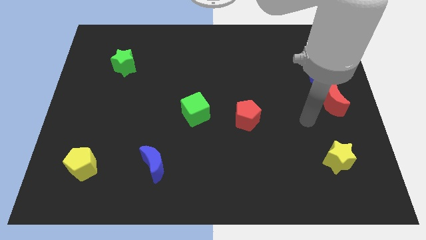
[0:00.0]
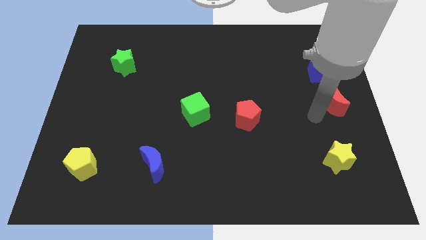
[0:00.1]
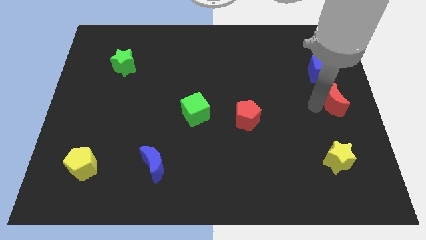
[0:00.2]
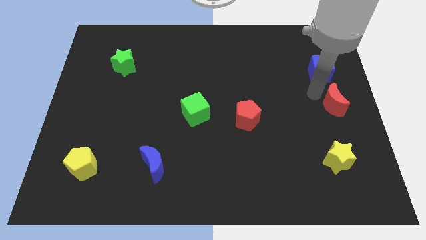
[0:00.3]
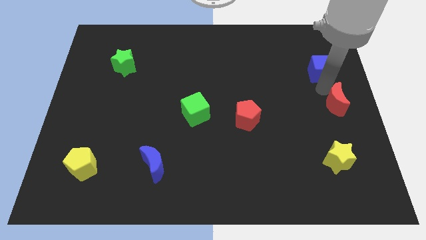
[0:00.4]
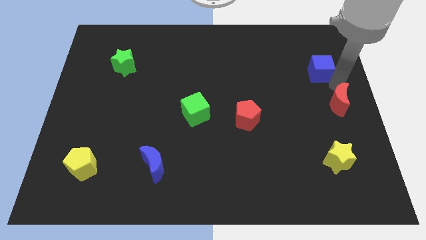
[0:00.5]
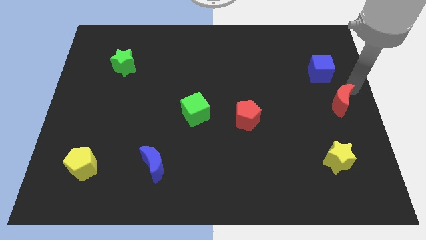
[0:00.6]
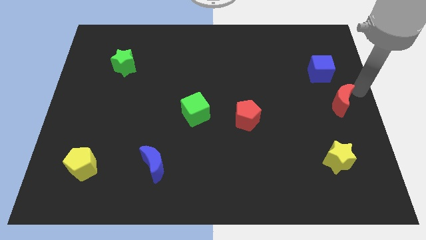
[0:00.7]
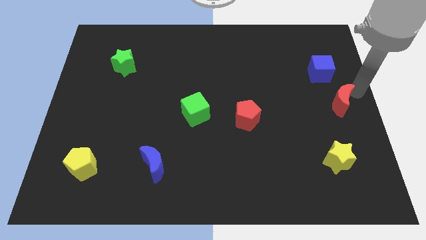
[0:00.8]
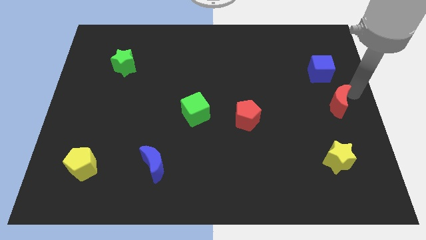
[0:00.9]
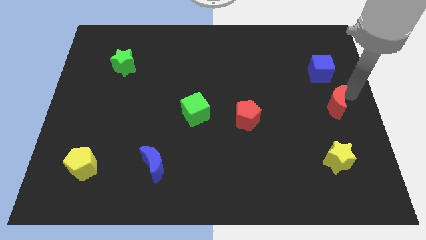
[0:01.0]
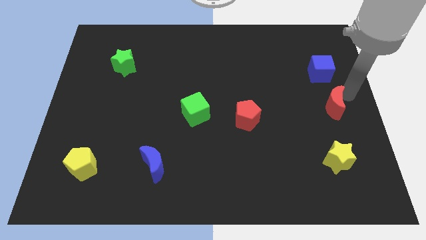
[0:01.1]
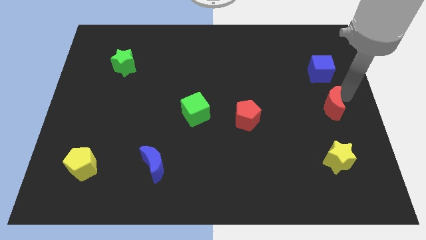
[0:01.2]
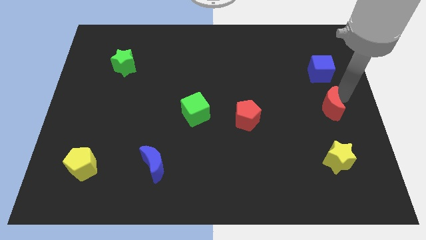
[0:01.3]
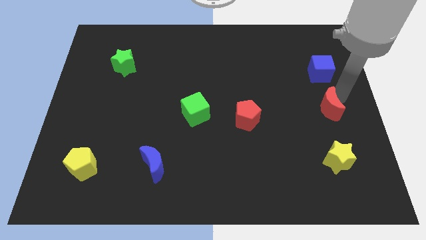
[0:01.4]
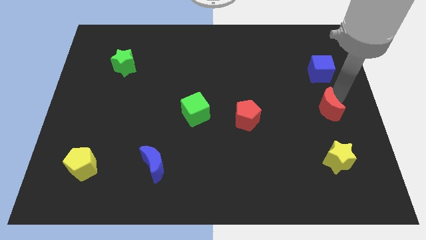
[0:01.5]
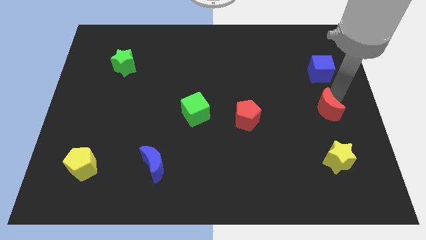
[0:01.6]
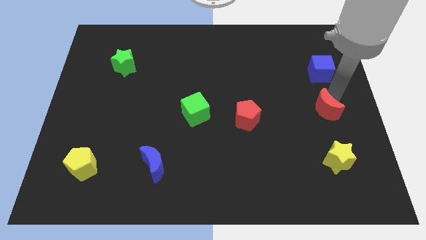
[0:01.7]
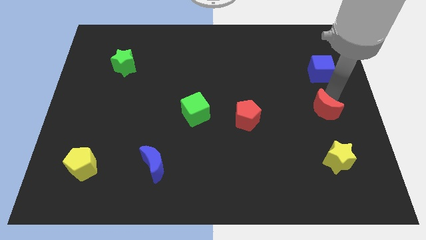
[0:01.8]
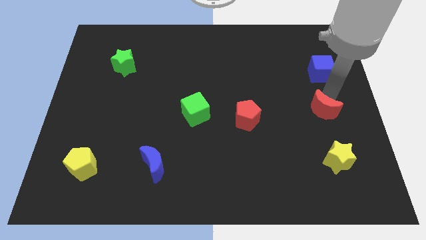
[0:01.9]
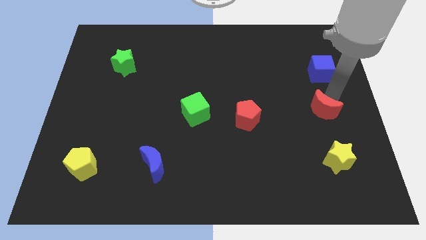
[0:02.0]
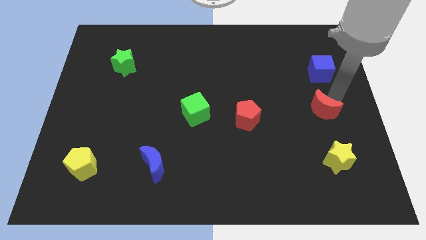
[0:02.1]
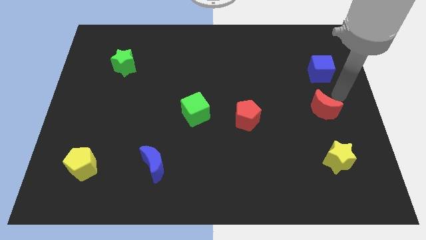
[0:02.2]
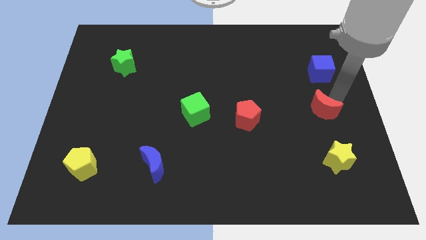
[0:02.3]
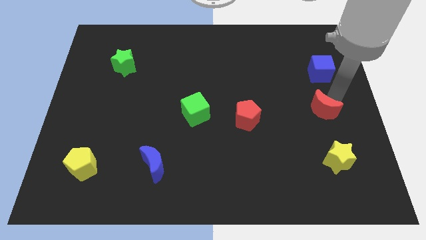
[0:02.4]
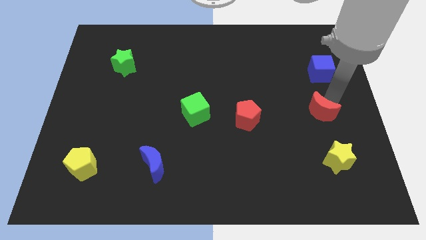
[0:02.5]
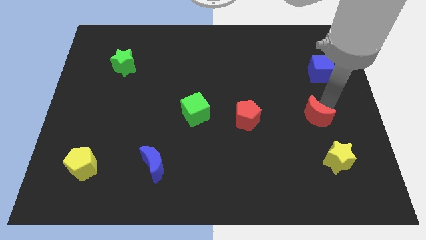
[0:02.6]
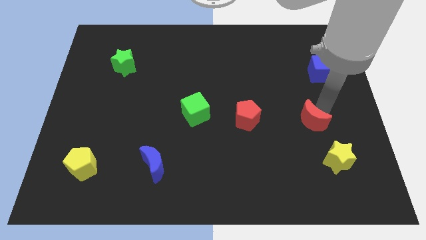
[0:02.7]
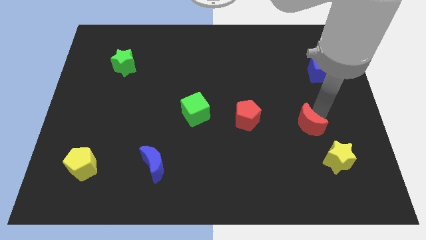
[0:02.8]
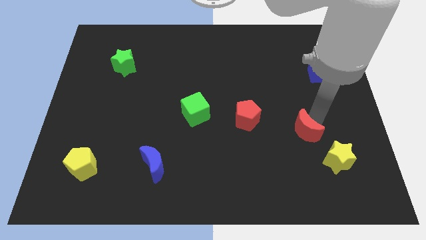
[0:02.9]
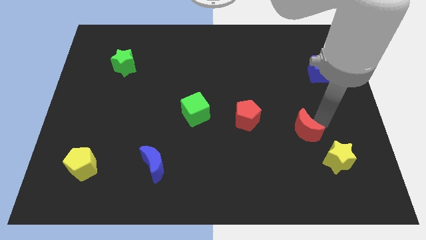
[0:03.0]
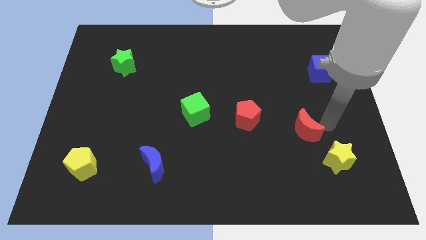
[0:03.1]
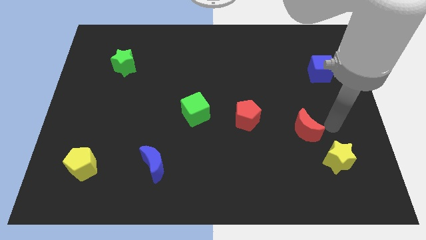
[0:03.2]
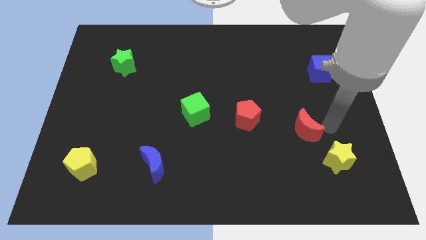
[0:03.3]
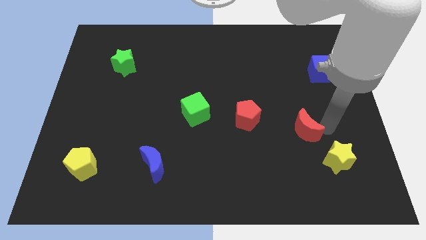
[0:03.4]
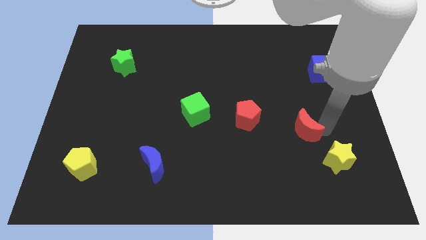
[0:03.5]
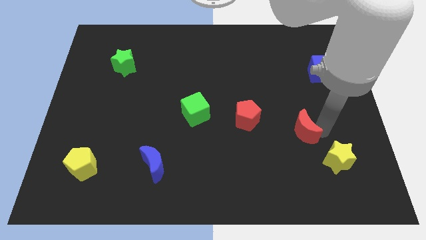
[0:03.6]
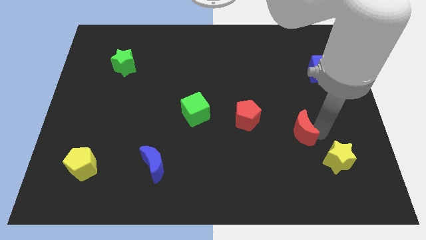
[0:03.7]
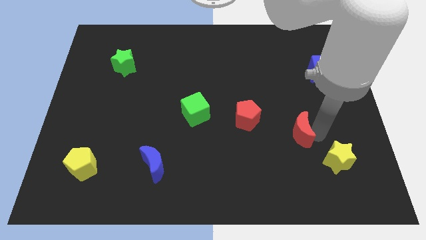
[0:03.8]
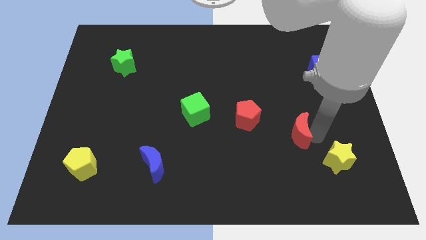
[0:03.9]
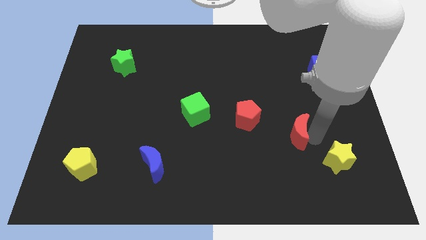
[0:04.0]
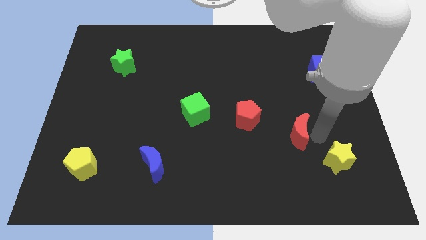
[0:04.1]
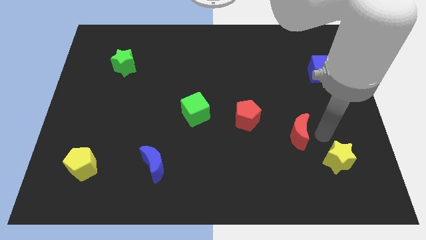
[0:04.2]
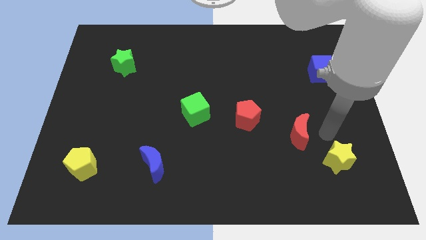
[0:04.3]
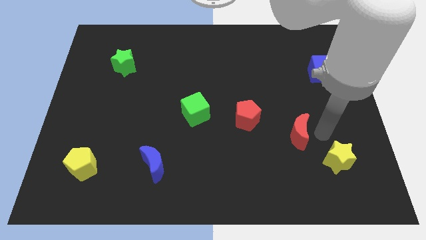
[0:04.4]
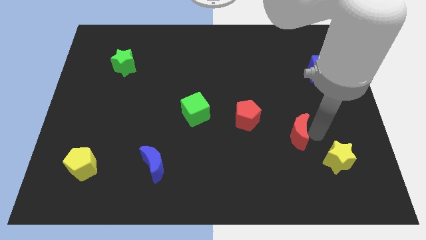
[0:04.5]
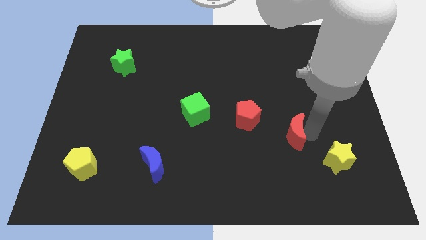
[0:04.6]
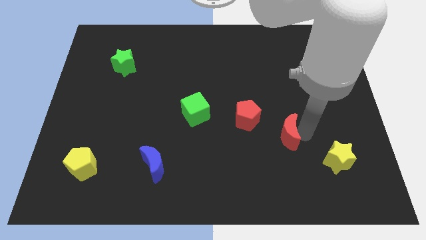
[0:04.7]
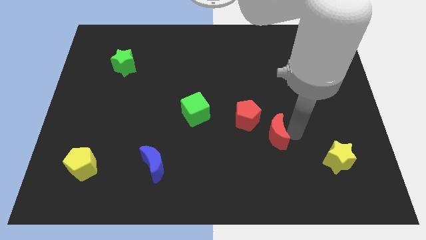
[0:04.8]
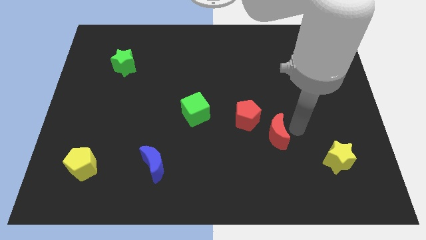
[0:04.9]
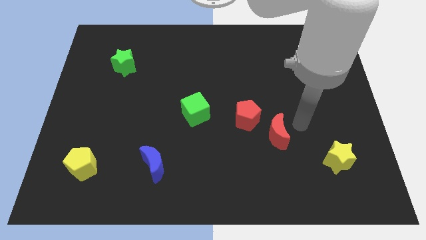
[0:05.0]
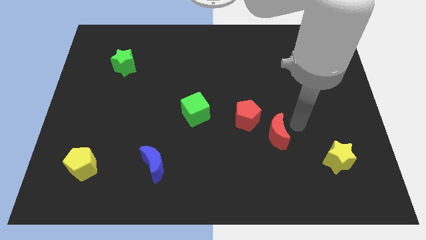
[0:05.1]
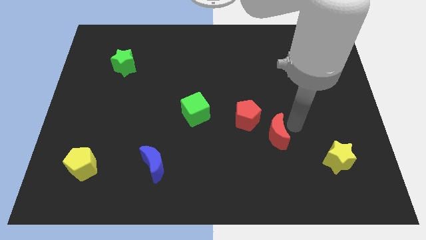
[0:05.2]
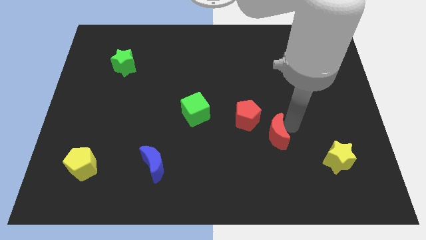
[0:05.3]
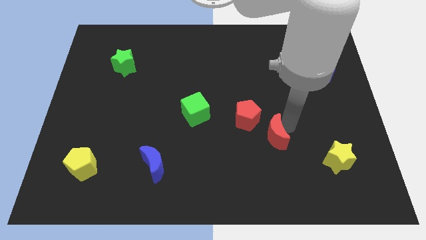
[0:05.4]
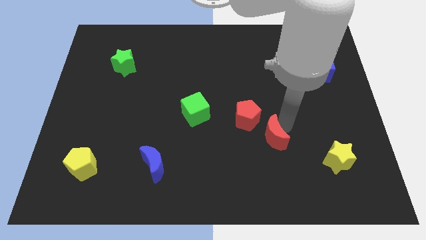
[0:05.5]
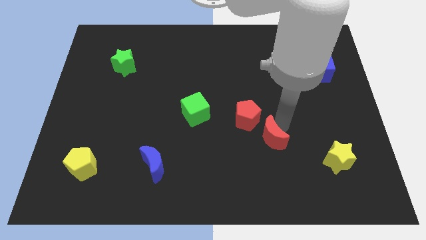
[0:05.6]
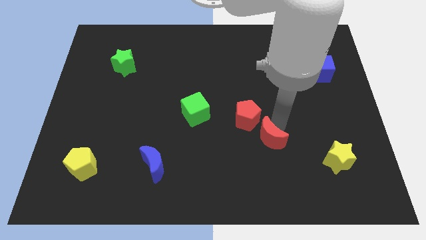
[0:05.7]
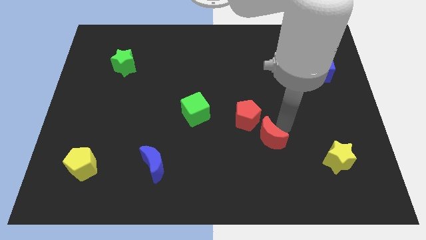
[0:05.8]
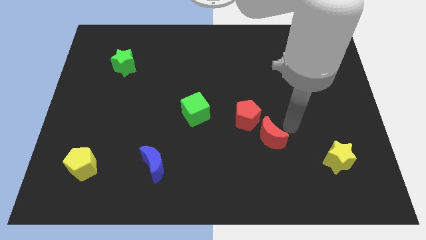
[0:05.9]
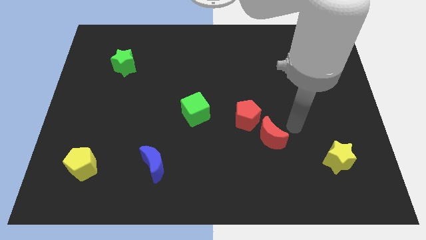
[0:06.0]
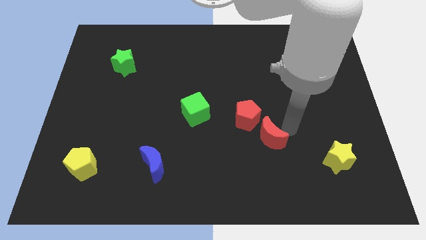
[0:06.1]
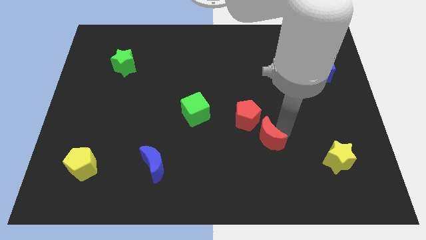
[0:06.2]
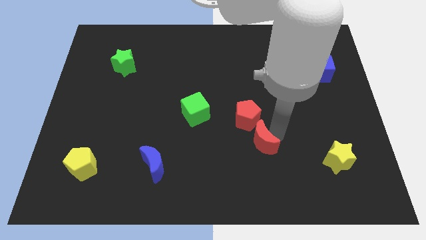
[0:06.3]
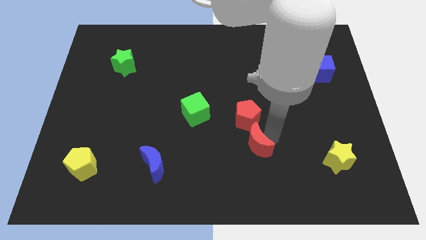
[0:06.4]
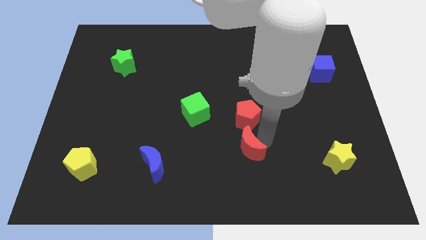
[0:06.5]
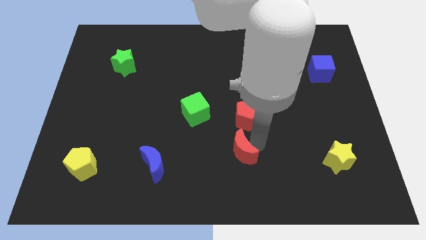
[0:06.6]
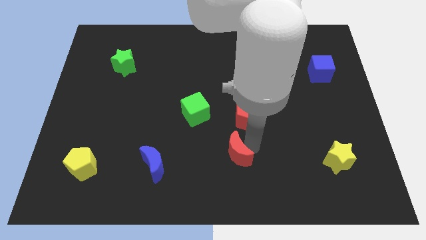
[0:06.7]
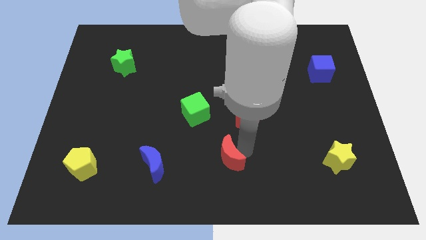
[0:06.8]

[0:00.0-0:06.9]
put the red moon just right of the blue moon

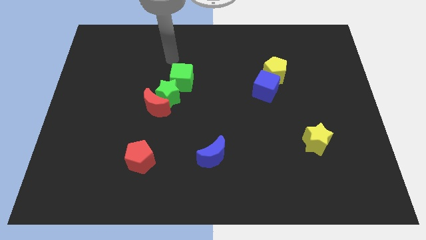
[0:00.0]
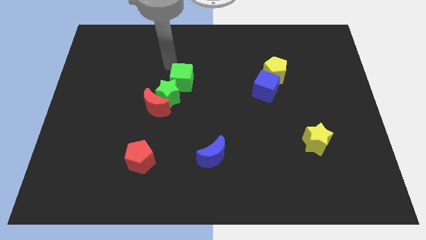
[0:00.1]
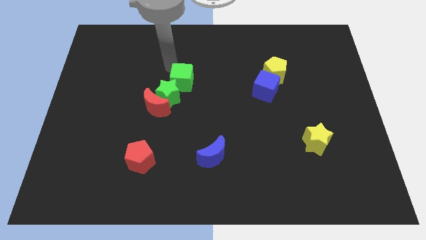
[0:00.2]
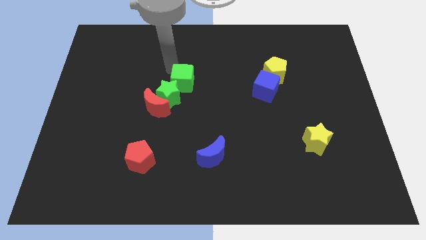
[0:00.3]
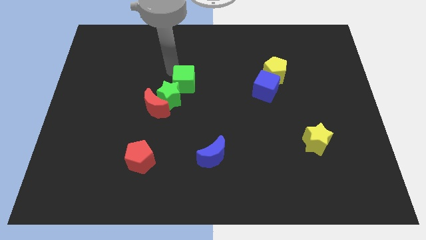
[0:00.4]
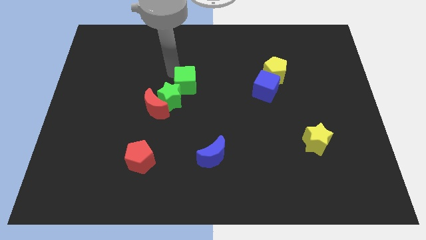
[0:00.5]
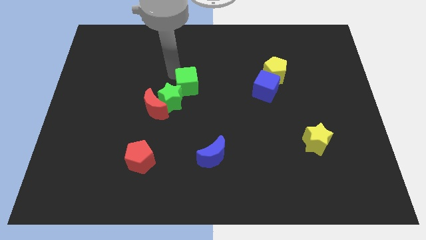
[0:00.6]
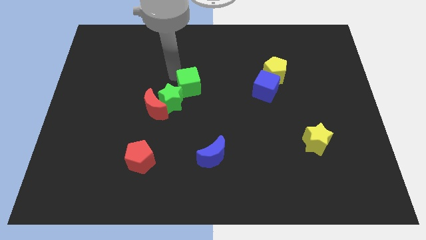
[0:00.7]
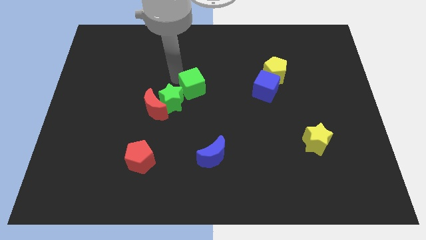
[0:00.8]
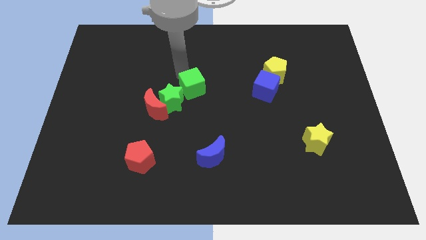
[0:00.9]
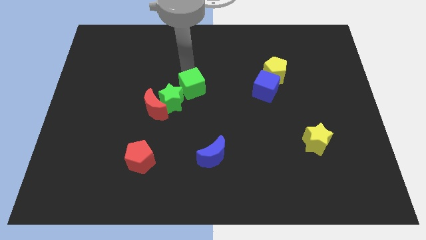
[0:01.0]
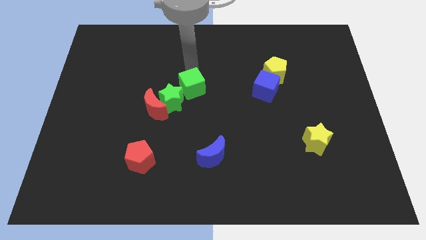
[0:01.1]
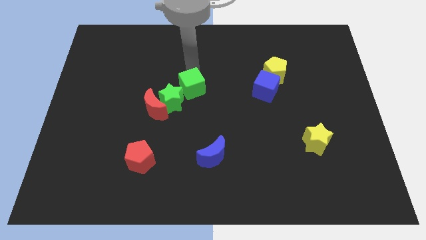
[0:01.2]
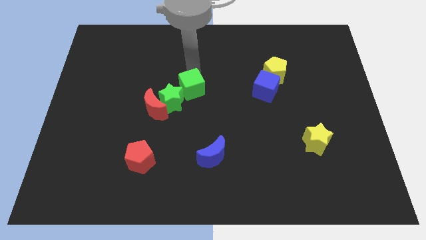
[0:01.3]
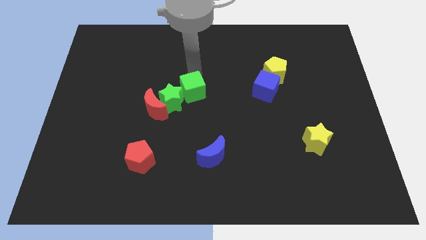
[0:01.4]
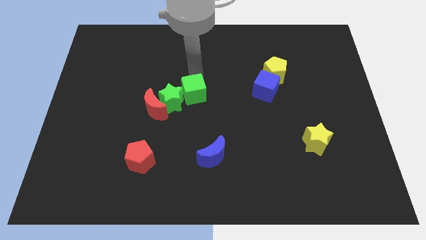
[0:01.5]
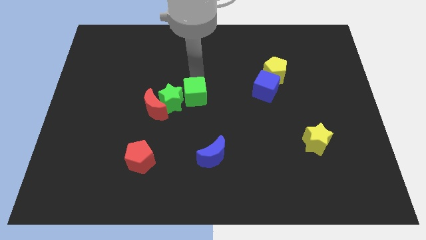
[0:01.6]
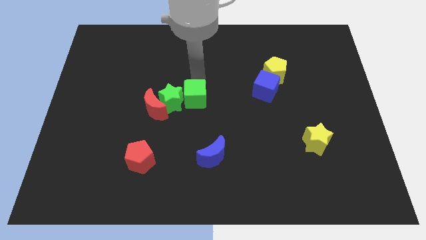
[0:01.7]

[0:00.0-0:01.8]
put the green cube to the bottom right of the green star
